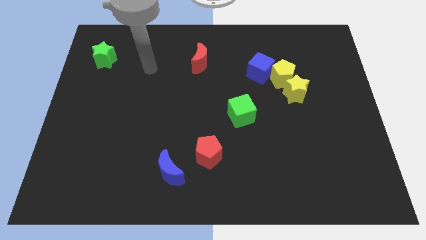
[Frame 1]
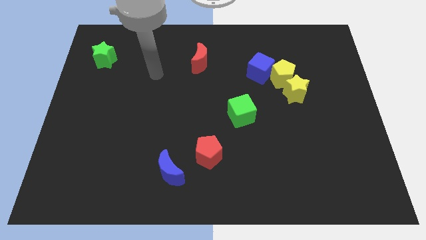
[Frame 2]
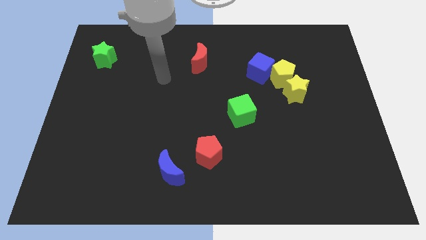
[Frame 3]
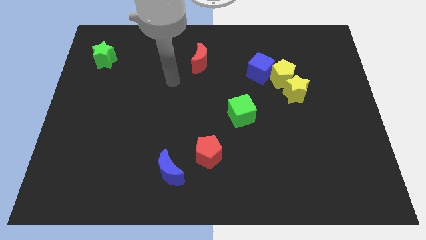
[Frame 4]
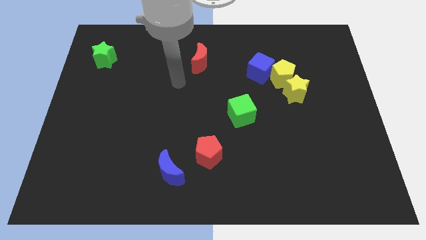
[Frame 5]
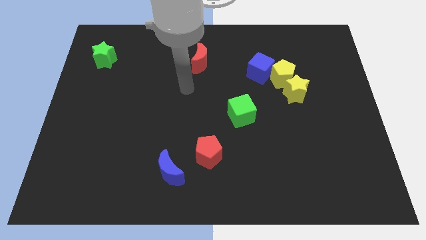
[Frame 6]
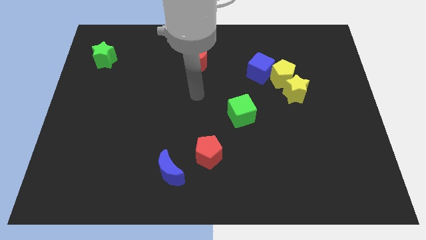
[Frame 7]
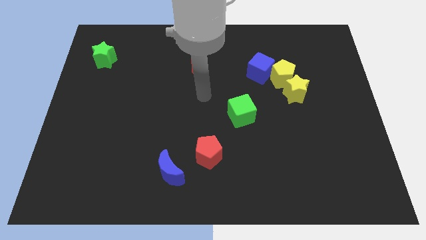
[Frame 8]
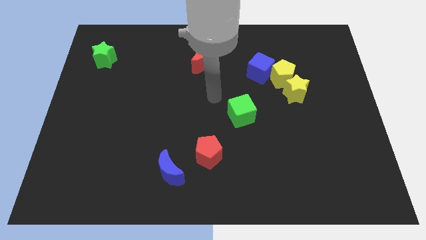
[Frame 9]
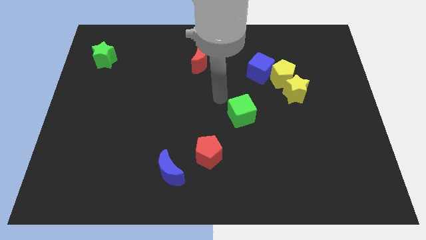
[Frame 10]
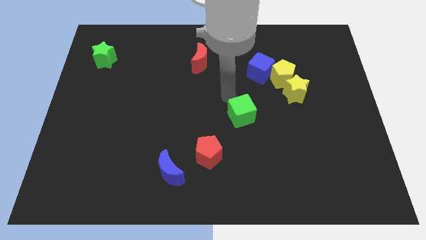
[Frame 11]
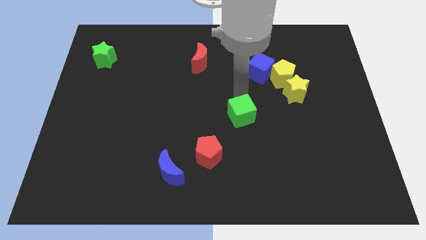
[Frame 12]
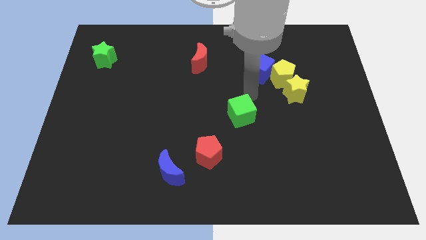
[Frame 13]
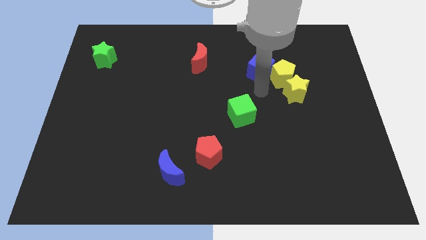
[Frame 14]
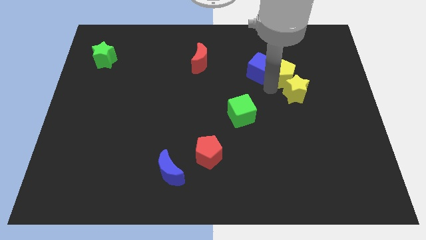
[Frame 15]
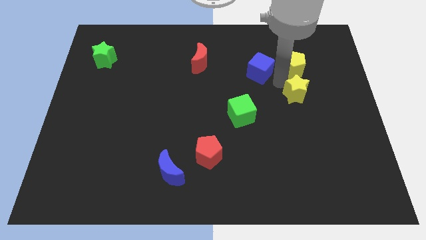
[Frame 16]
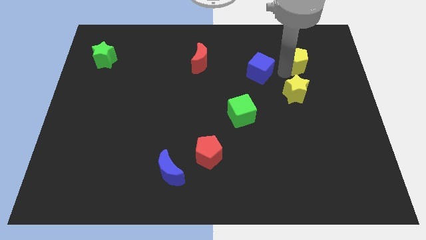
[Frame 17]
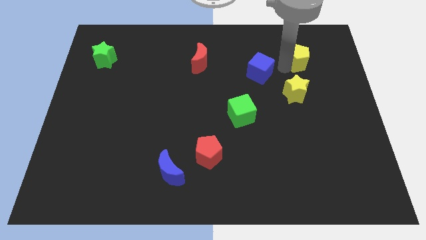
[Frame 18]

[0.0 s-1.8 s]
pull the blue cube apart from the yellow pentagon

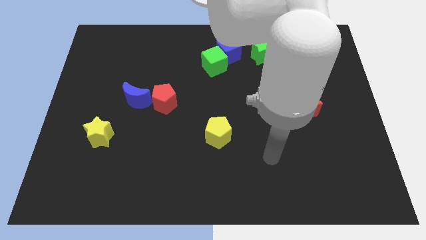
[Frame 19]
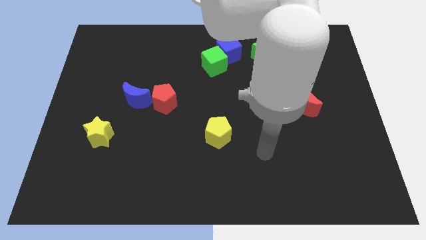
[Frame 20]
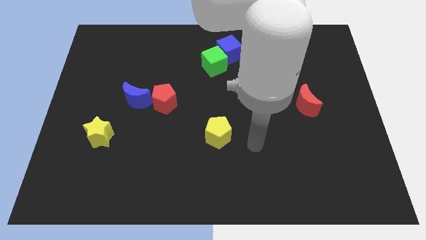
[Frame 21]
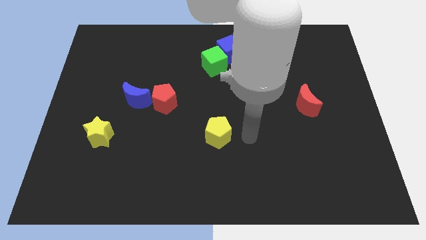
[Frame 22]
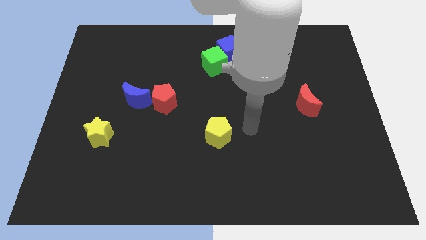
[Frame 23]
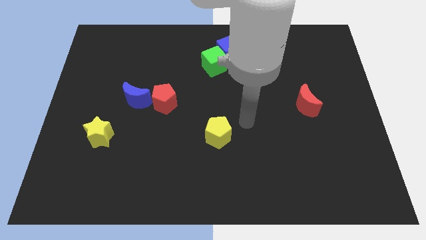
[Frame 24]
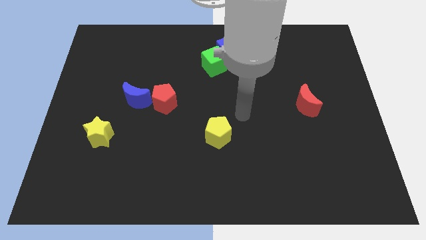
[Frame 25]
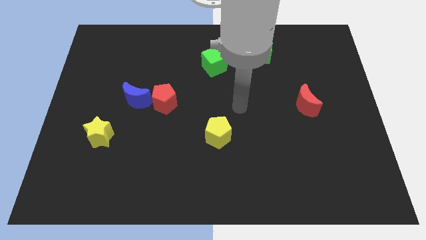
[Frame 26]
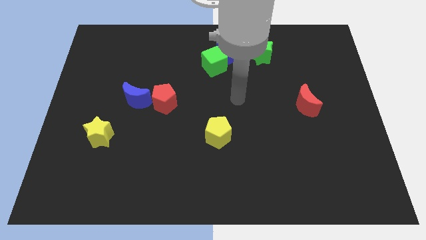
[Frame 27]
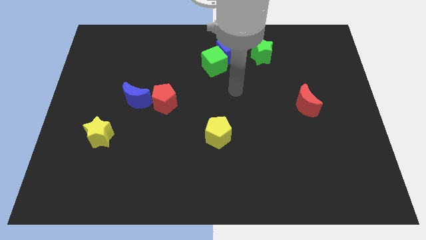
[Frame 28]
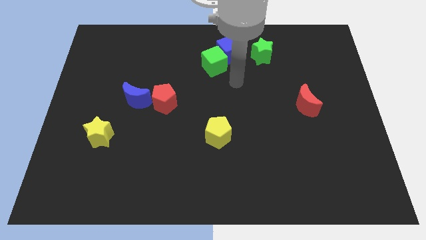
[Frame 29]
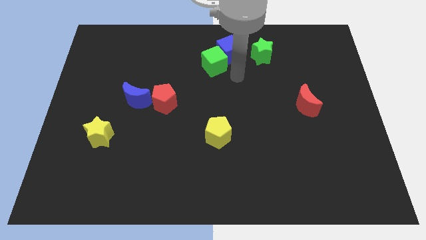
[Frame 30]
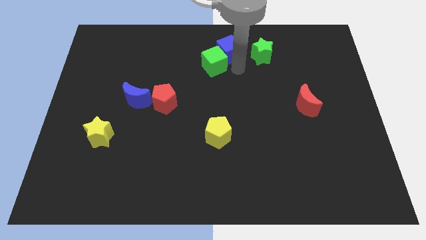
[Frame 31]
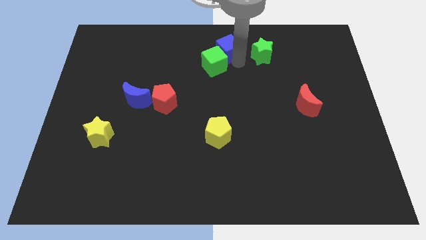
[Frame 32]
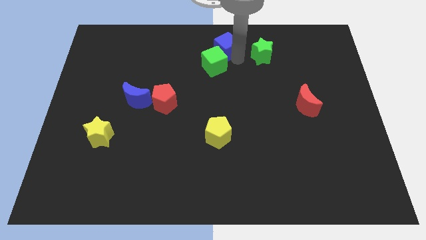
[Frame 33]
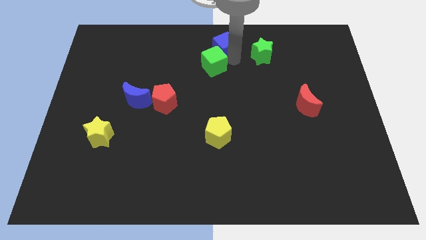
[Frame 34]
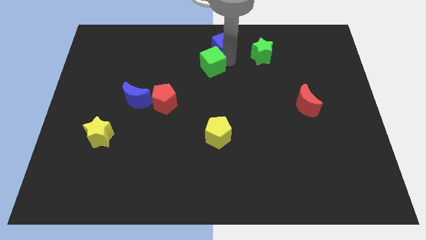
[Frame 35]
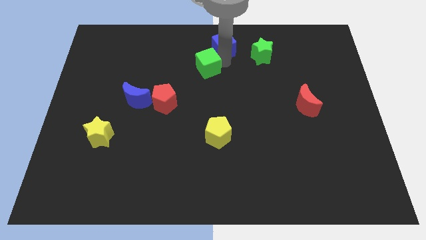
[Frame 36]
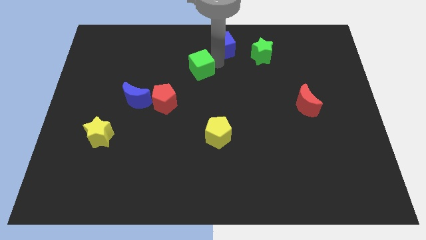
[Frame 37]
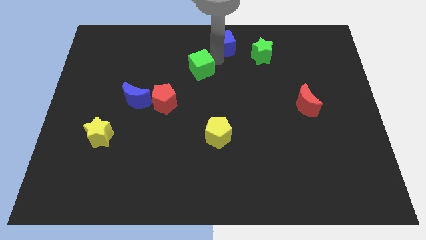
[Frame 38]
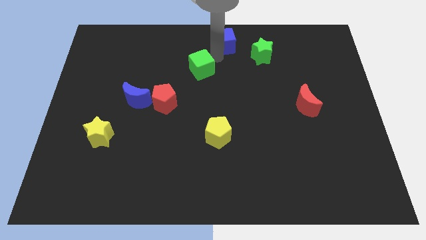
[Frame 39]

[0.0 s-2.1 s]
move the green cube away from the blue cube

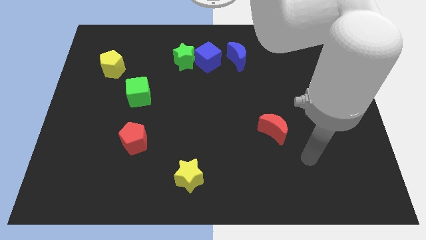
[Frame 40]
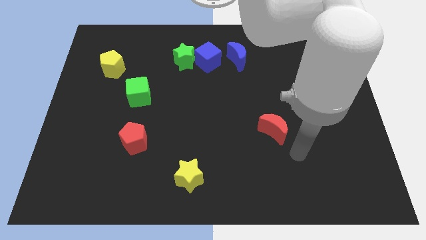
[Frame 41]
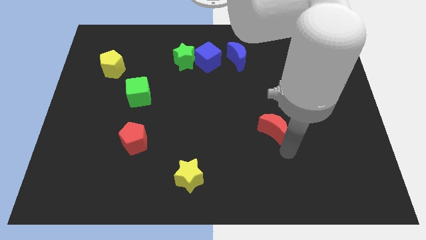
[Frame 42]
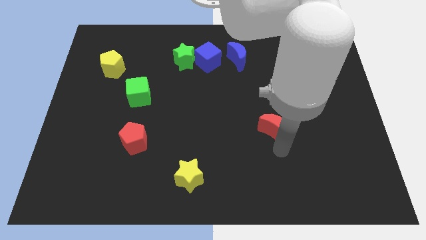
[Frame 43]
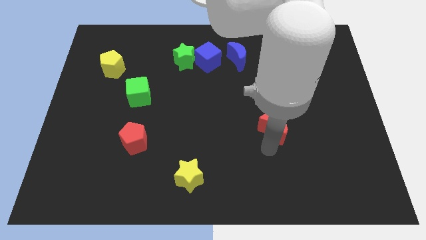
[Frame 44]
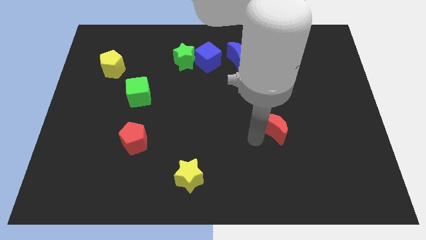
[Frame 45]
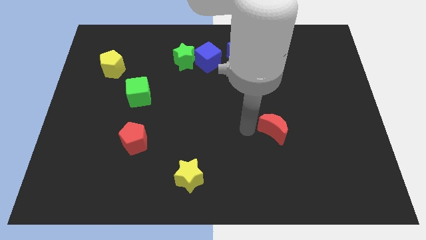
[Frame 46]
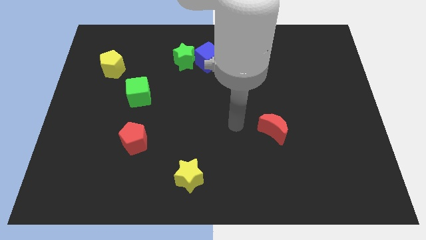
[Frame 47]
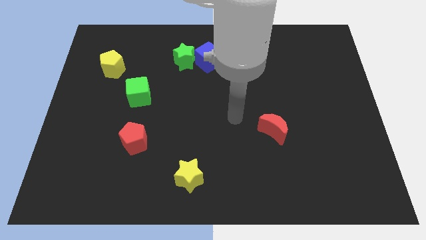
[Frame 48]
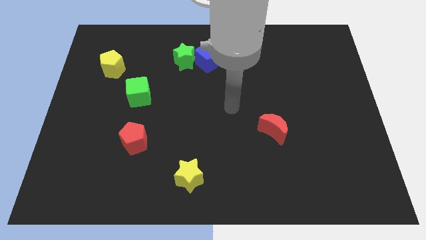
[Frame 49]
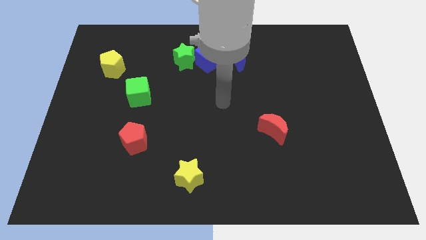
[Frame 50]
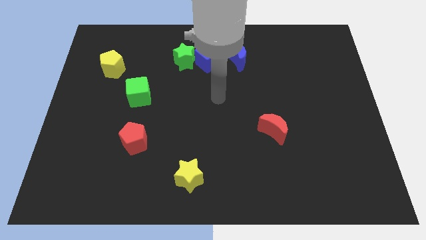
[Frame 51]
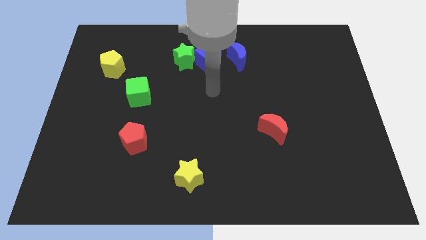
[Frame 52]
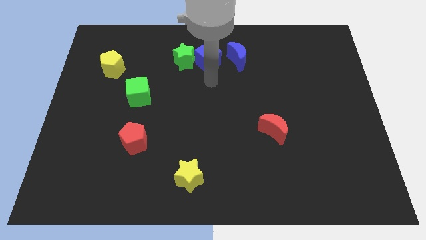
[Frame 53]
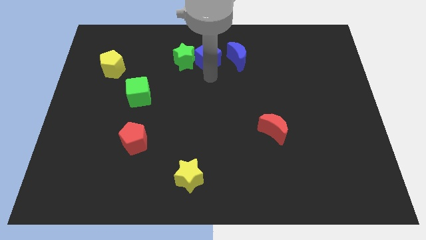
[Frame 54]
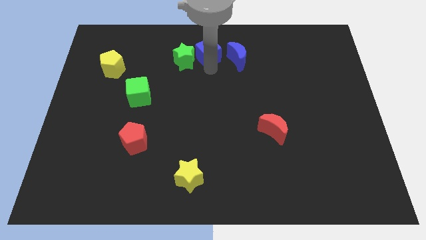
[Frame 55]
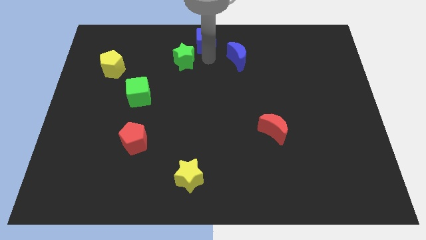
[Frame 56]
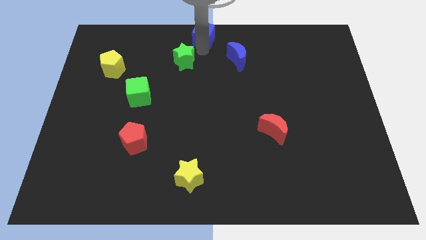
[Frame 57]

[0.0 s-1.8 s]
pull the green star apart from the blue cube

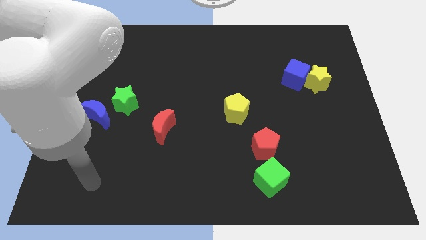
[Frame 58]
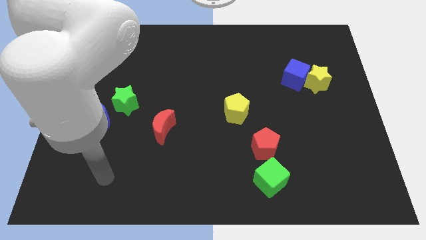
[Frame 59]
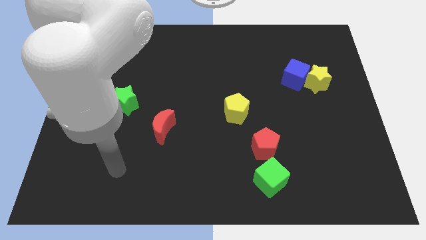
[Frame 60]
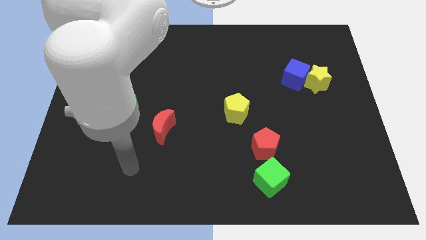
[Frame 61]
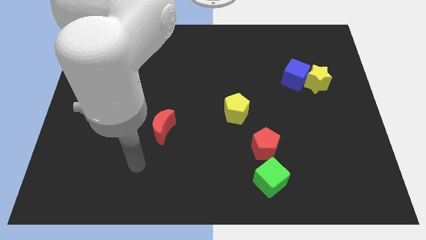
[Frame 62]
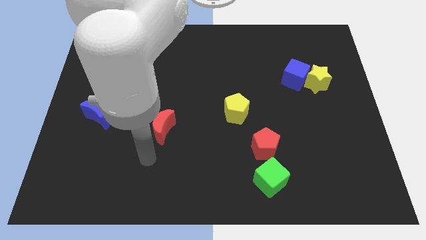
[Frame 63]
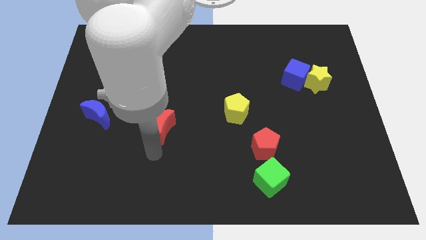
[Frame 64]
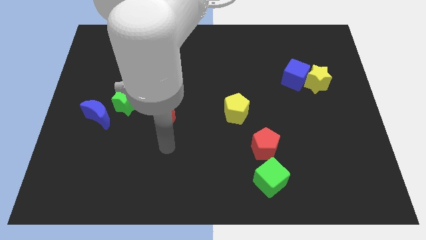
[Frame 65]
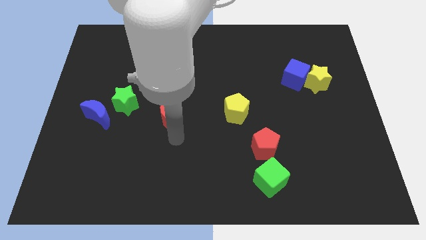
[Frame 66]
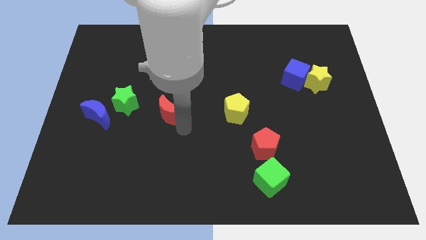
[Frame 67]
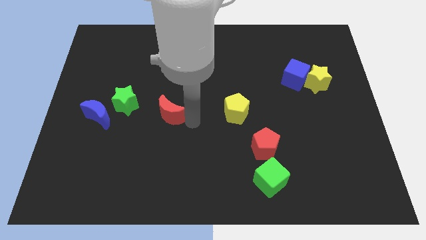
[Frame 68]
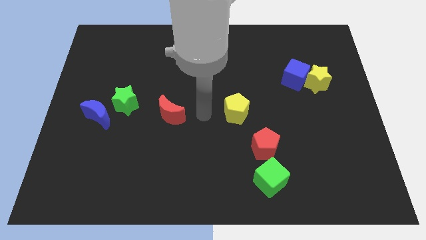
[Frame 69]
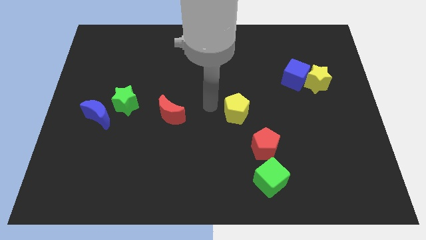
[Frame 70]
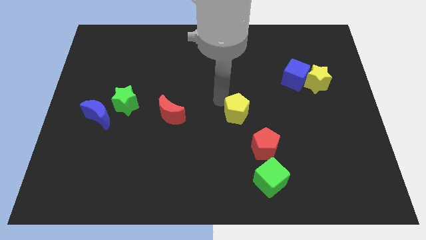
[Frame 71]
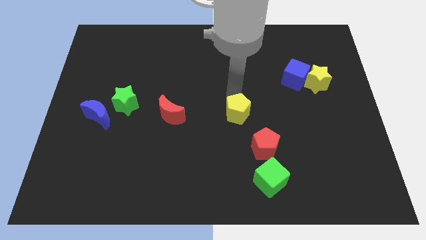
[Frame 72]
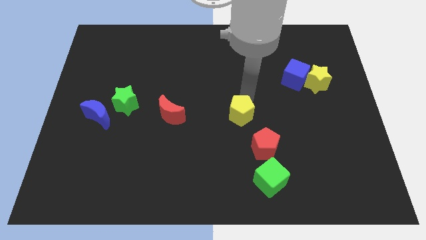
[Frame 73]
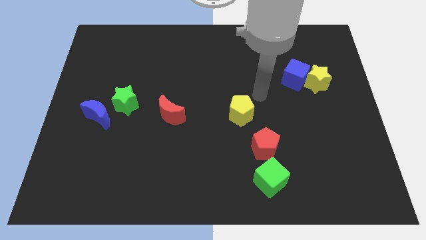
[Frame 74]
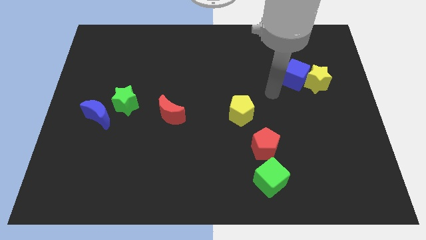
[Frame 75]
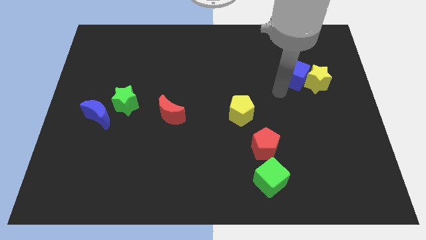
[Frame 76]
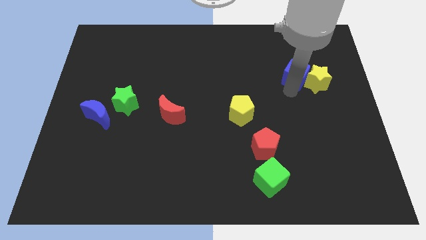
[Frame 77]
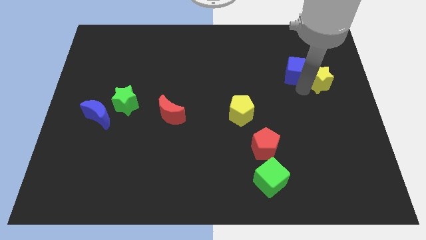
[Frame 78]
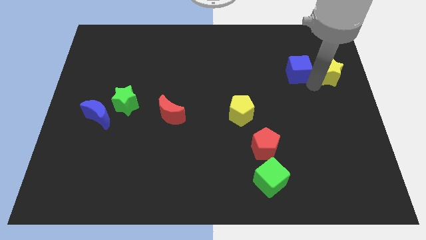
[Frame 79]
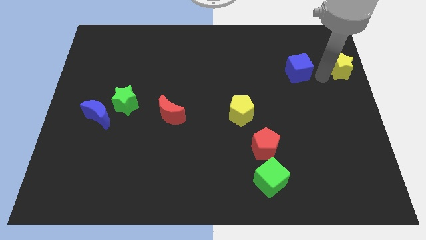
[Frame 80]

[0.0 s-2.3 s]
move the blue cube away from the yellow star

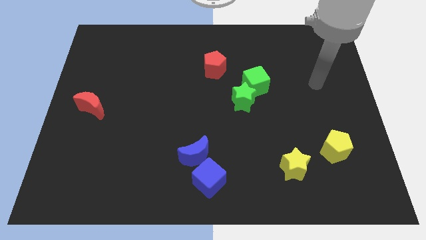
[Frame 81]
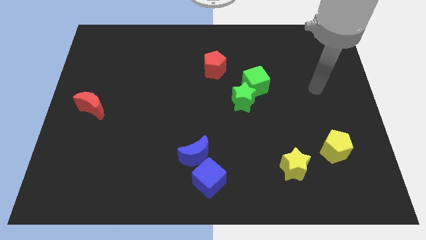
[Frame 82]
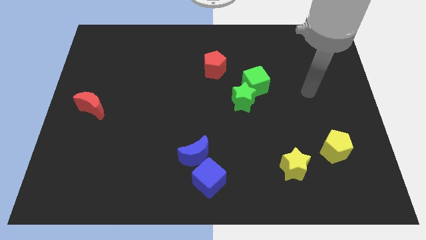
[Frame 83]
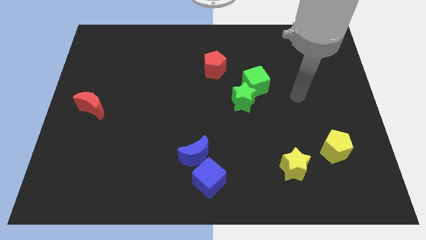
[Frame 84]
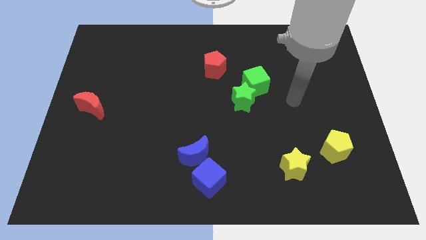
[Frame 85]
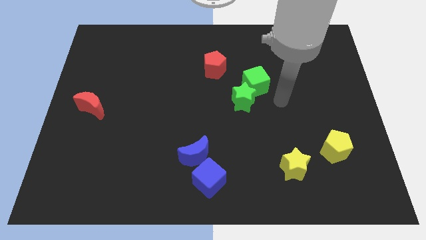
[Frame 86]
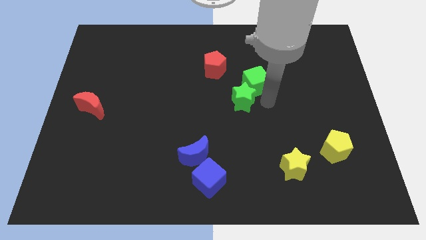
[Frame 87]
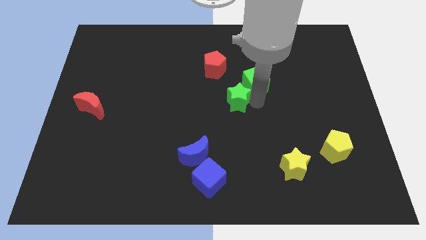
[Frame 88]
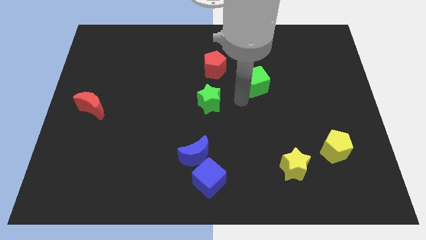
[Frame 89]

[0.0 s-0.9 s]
move the green cube away from the green star

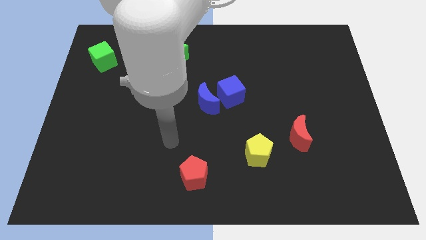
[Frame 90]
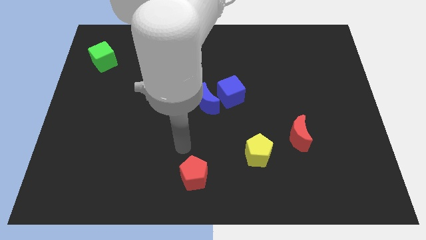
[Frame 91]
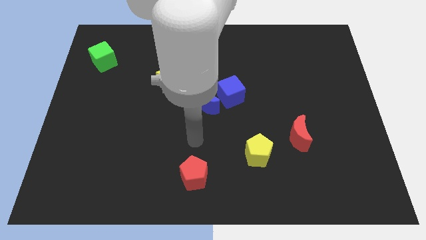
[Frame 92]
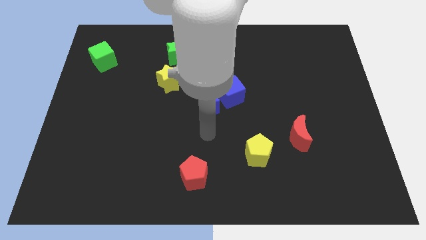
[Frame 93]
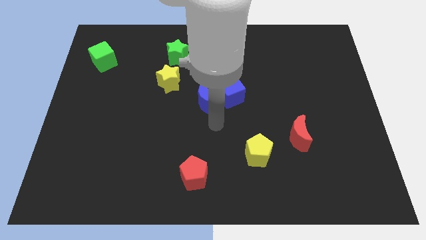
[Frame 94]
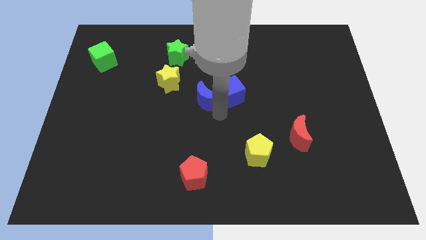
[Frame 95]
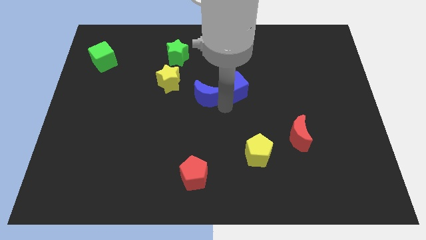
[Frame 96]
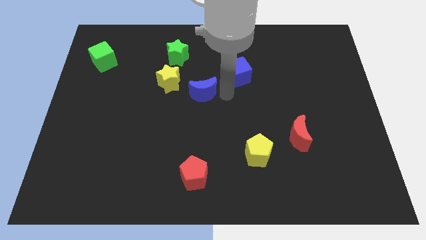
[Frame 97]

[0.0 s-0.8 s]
separate the blue moon from the blue cube
